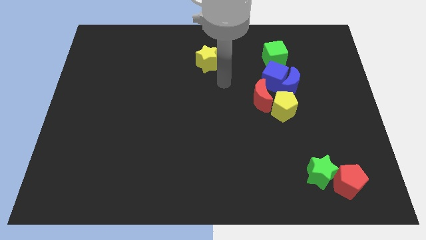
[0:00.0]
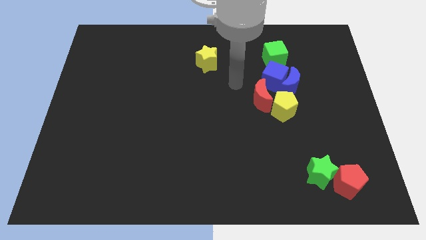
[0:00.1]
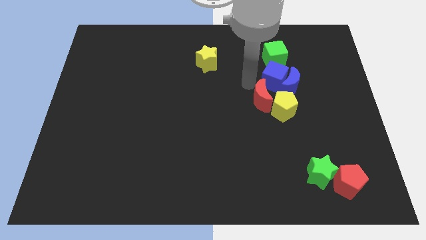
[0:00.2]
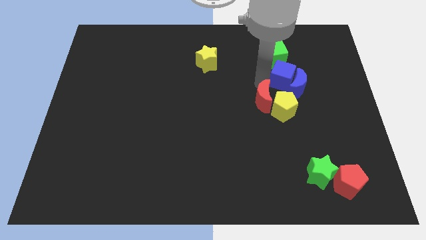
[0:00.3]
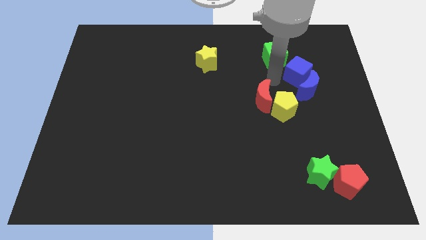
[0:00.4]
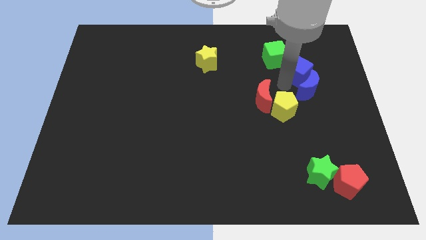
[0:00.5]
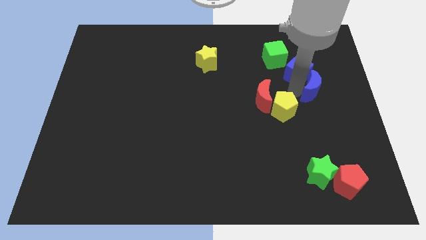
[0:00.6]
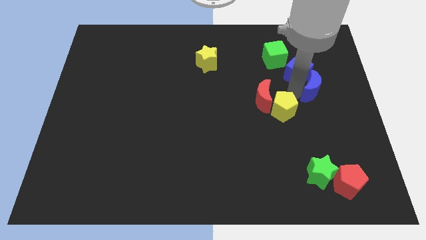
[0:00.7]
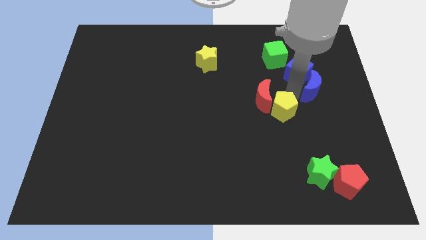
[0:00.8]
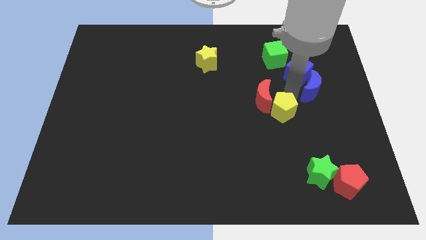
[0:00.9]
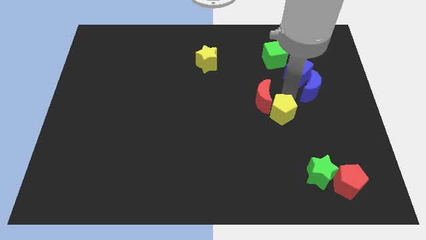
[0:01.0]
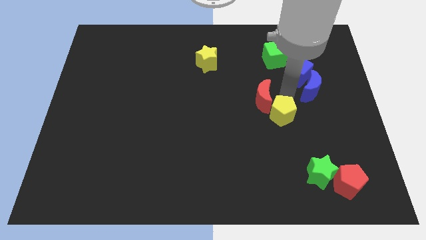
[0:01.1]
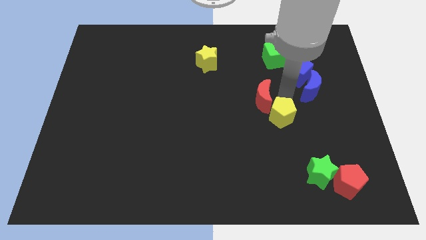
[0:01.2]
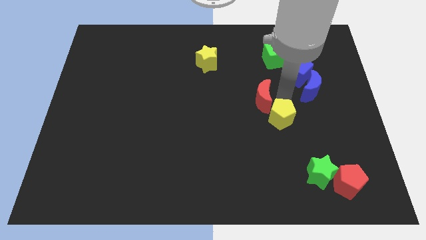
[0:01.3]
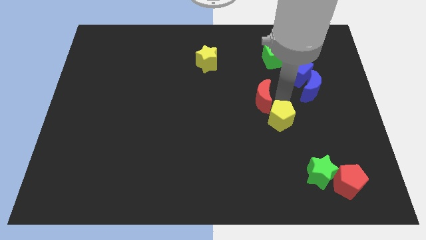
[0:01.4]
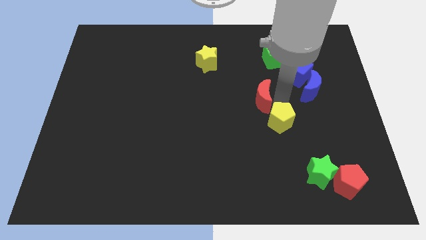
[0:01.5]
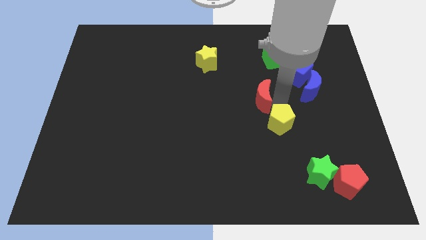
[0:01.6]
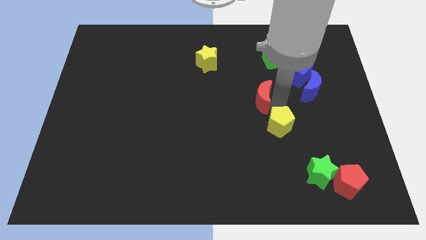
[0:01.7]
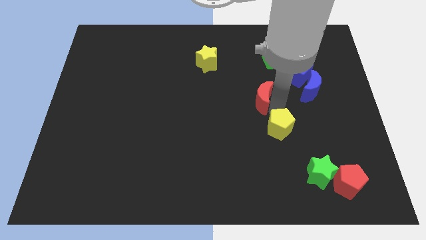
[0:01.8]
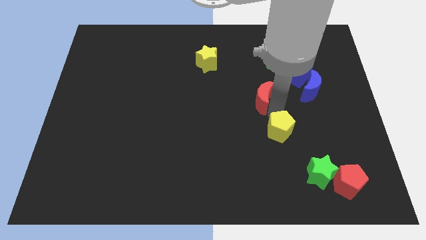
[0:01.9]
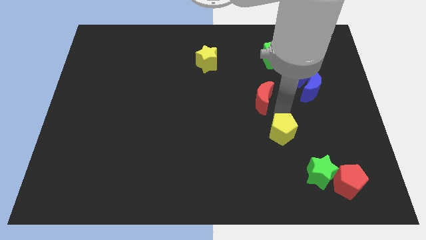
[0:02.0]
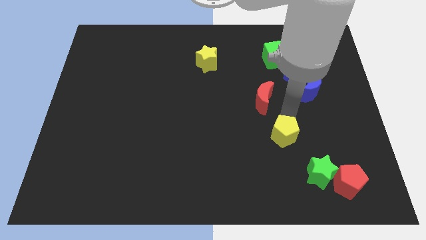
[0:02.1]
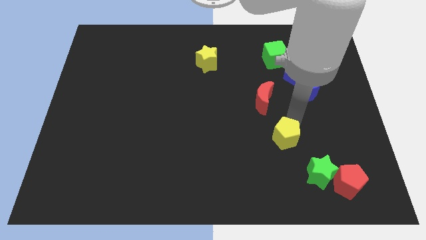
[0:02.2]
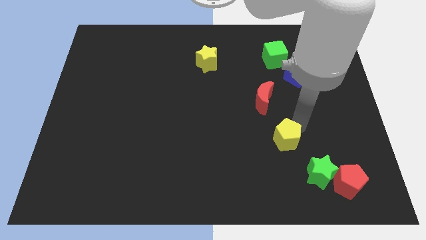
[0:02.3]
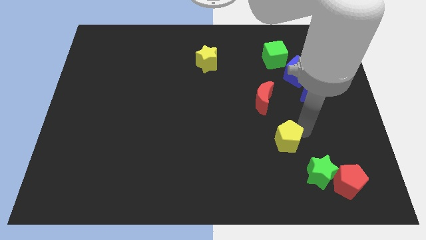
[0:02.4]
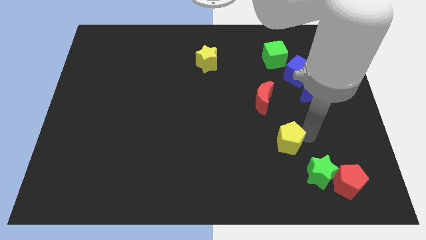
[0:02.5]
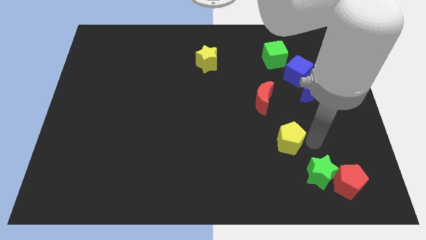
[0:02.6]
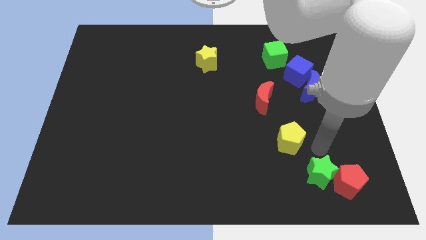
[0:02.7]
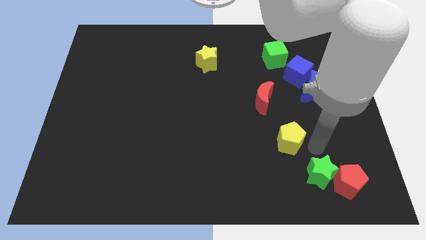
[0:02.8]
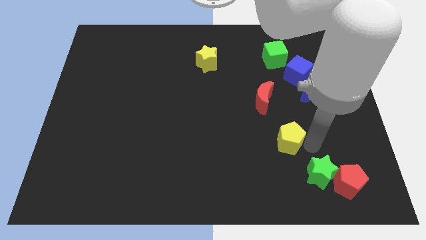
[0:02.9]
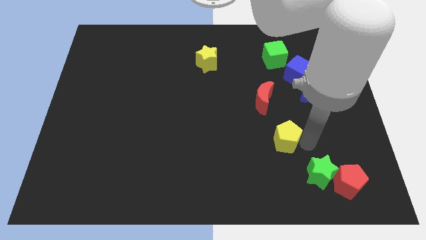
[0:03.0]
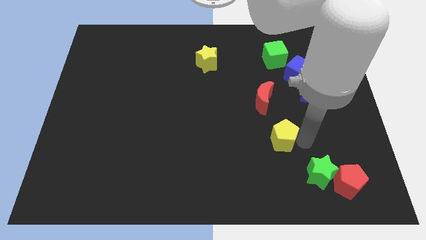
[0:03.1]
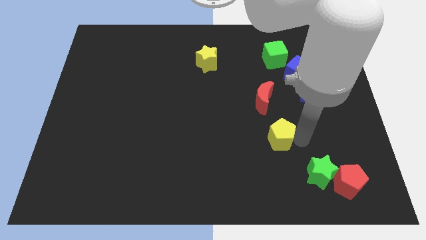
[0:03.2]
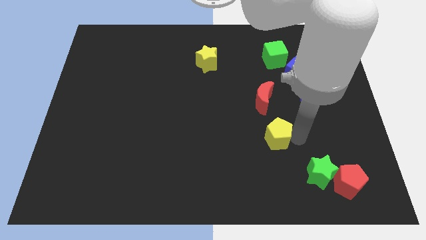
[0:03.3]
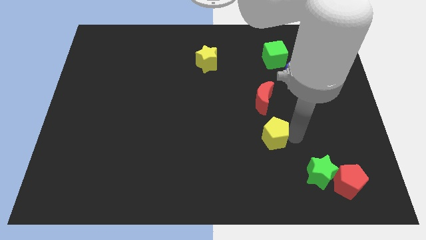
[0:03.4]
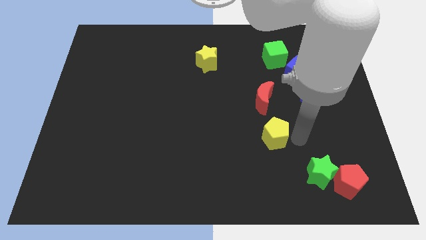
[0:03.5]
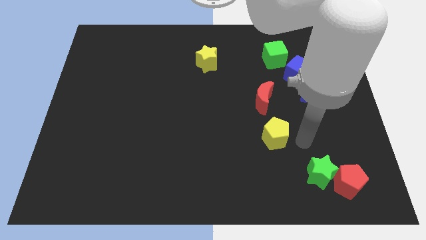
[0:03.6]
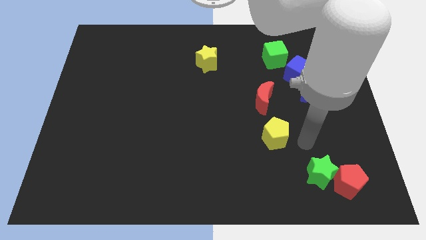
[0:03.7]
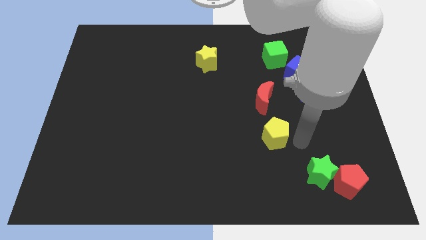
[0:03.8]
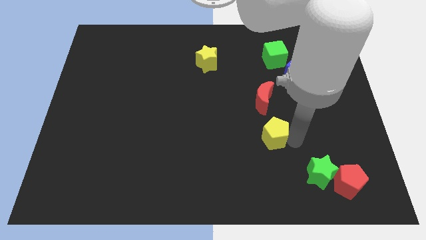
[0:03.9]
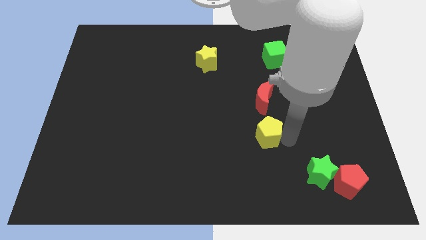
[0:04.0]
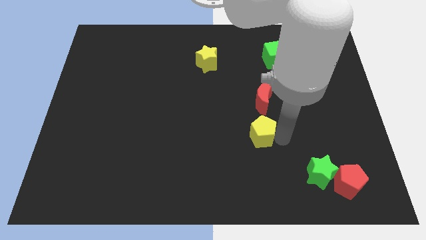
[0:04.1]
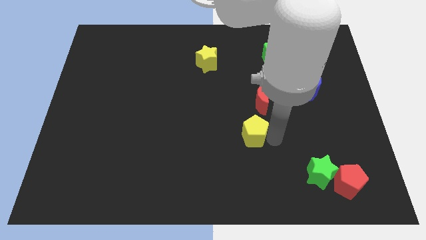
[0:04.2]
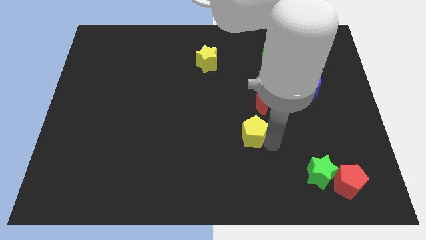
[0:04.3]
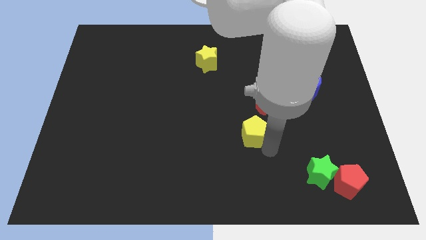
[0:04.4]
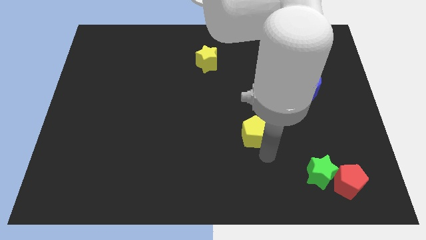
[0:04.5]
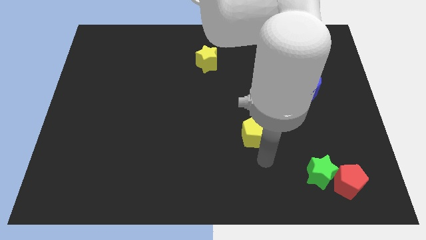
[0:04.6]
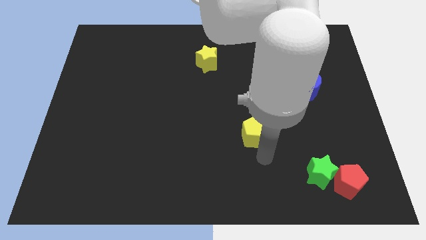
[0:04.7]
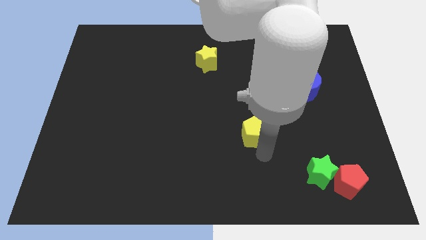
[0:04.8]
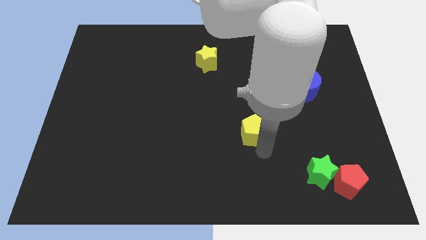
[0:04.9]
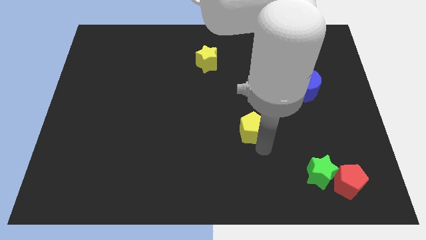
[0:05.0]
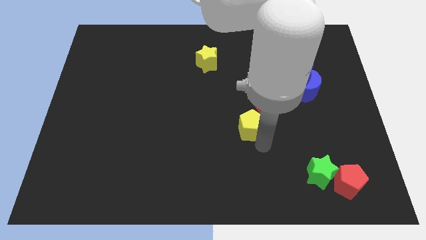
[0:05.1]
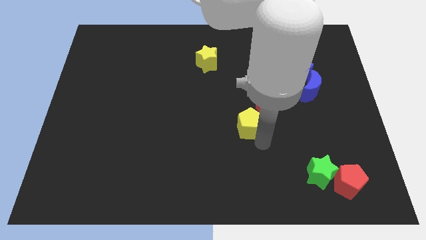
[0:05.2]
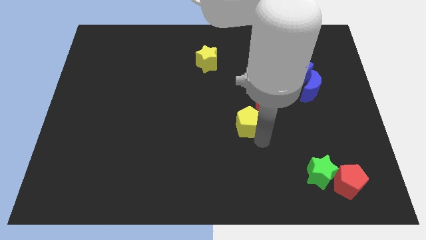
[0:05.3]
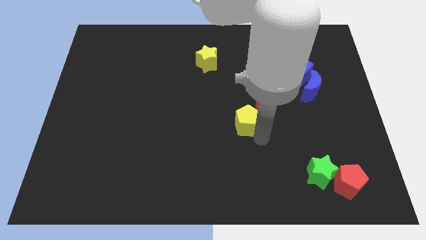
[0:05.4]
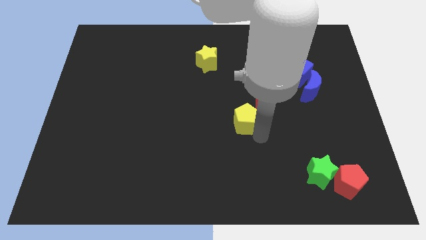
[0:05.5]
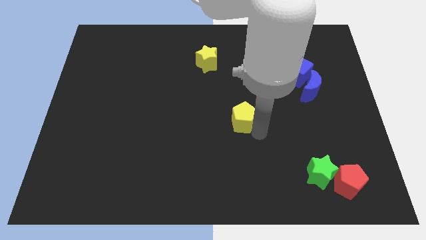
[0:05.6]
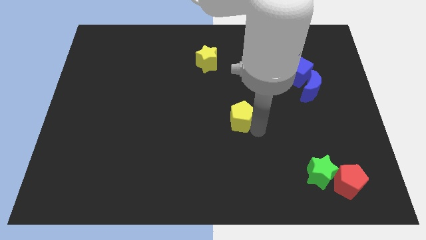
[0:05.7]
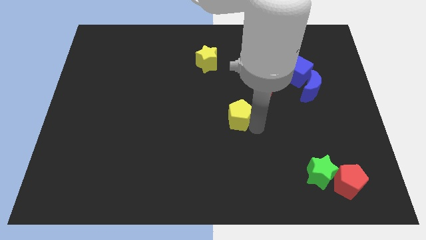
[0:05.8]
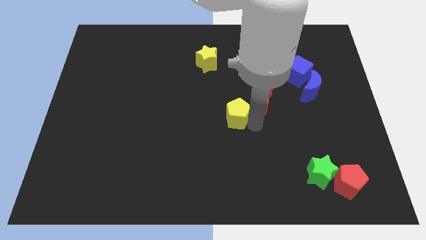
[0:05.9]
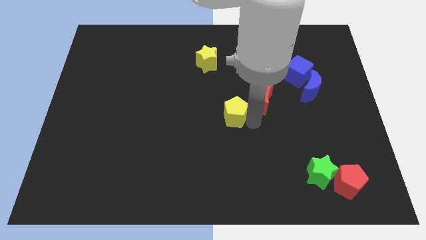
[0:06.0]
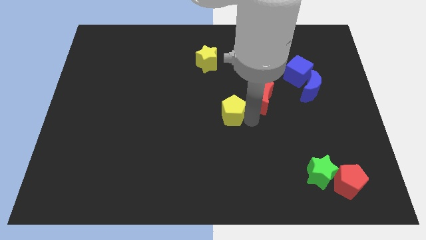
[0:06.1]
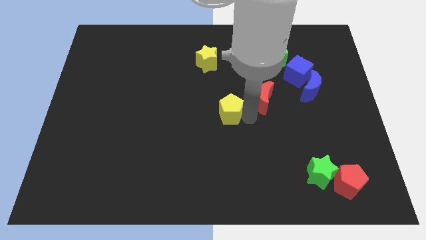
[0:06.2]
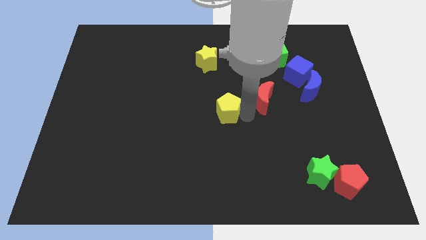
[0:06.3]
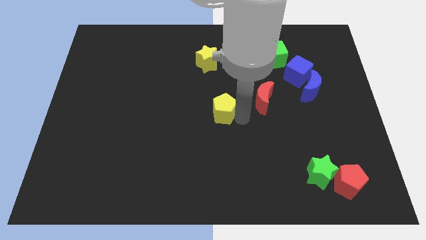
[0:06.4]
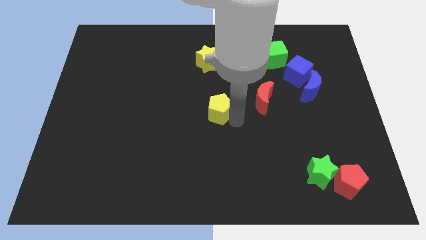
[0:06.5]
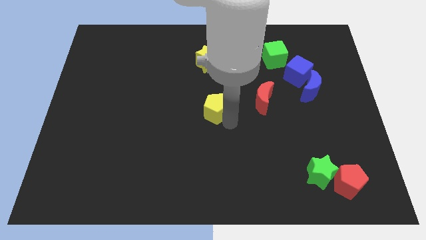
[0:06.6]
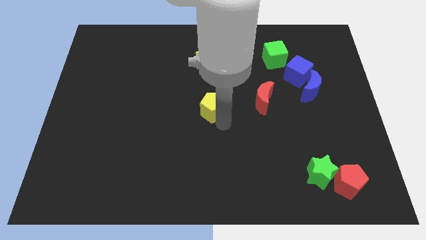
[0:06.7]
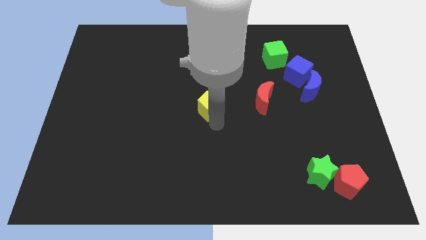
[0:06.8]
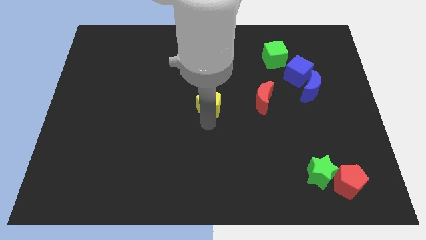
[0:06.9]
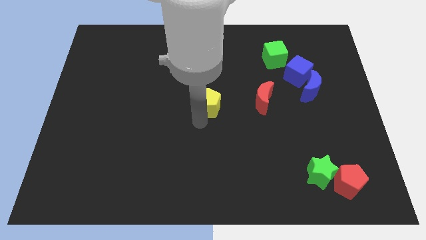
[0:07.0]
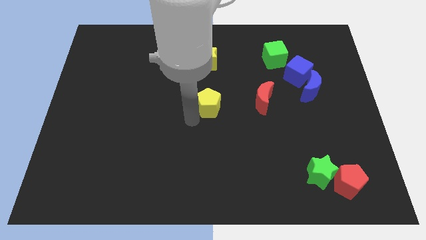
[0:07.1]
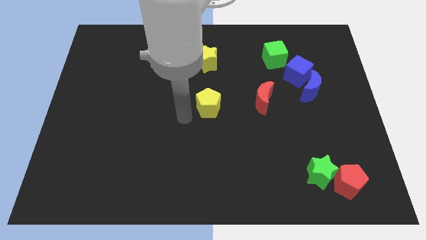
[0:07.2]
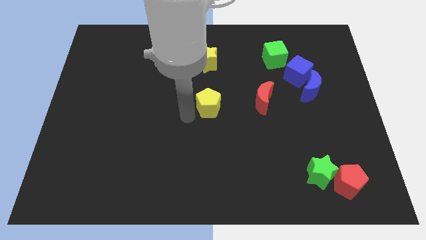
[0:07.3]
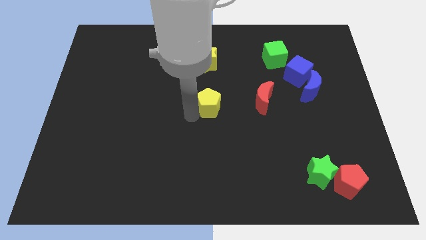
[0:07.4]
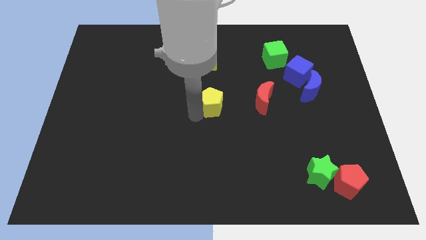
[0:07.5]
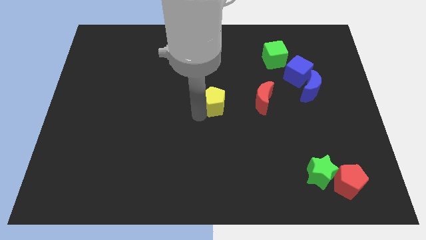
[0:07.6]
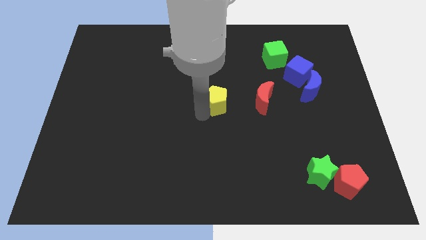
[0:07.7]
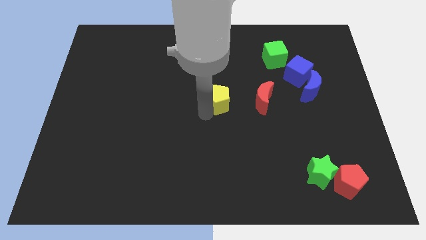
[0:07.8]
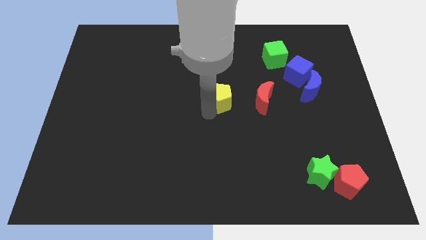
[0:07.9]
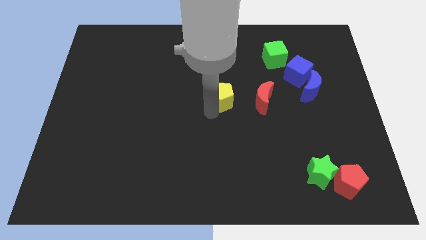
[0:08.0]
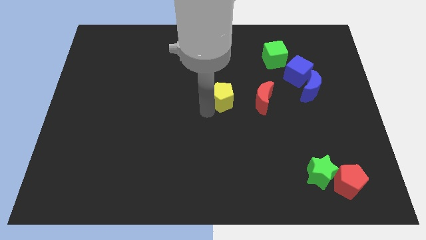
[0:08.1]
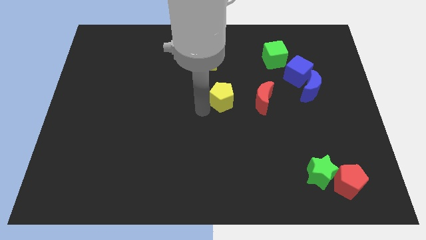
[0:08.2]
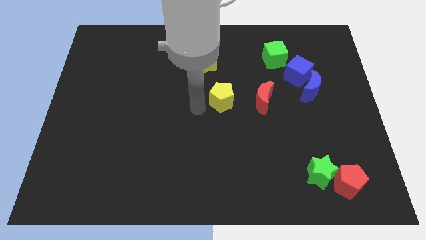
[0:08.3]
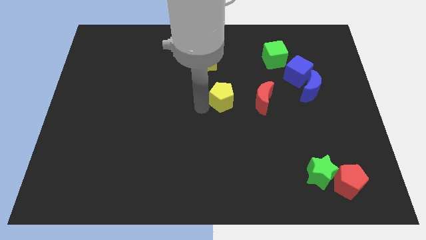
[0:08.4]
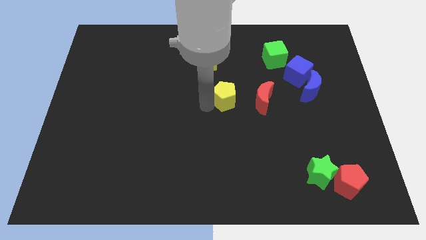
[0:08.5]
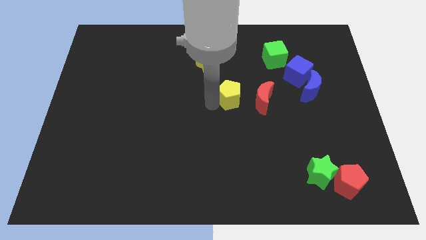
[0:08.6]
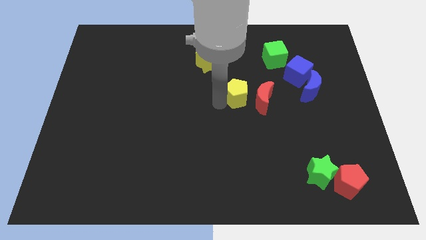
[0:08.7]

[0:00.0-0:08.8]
put the yellow pentagon to the top left side of the red moon
